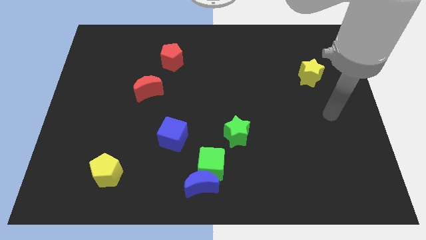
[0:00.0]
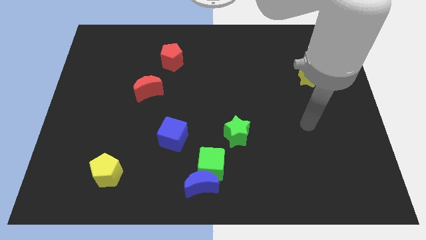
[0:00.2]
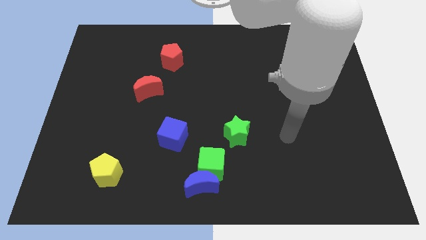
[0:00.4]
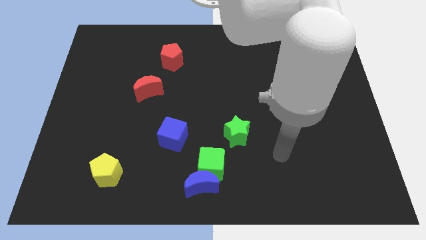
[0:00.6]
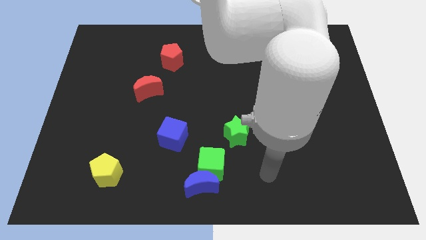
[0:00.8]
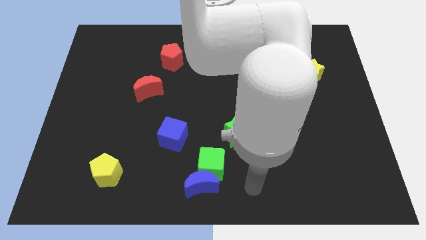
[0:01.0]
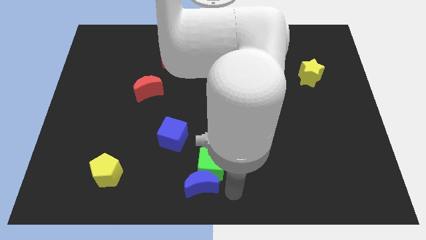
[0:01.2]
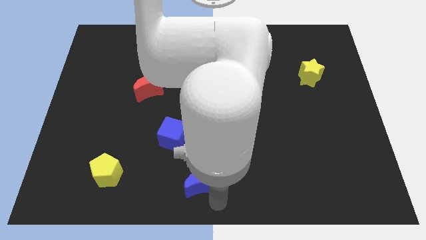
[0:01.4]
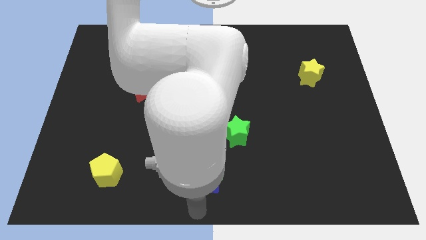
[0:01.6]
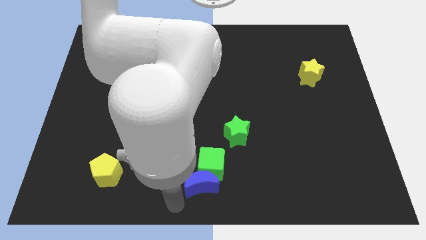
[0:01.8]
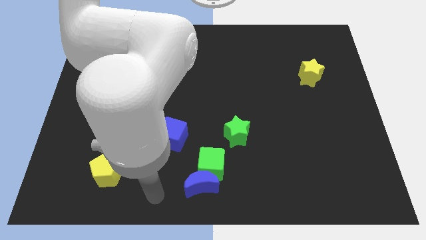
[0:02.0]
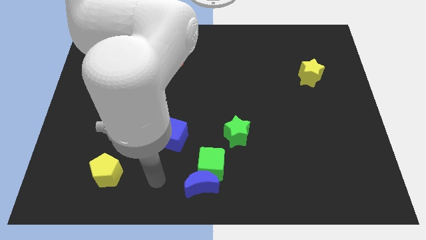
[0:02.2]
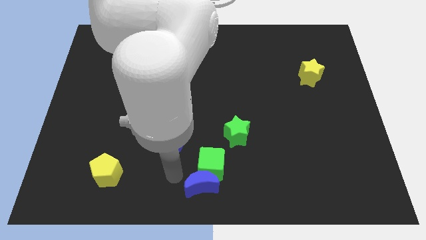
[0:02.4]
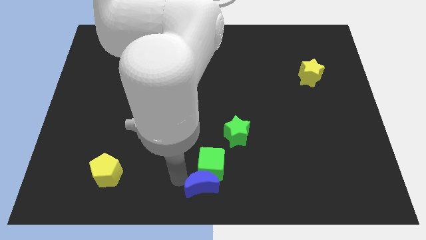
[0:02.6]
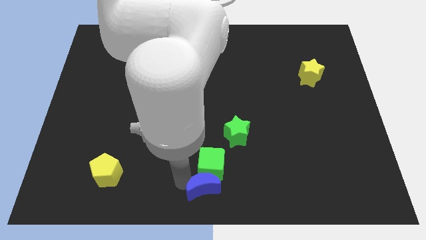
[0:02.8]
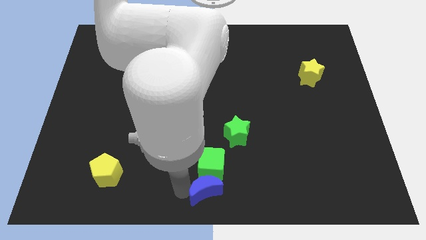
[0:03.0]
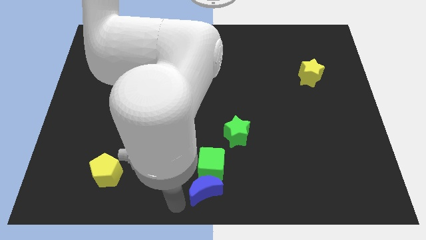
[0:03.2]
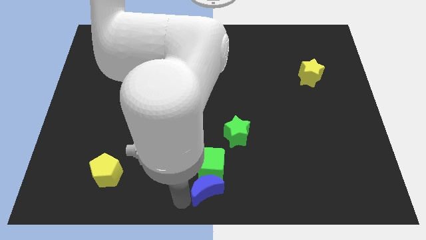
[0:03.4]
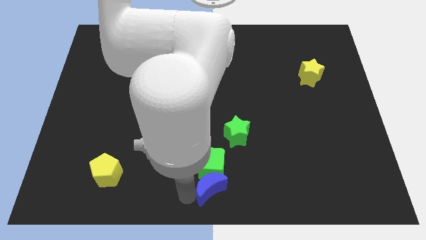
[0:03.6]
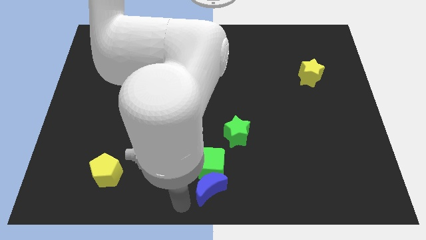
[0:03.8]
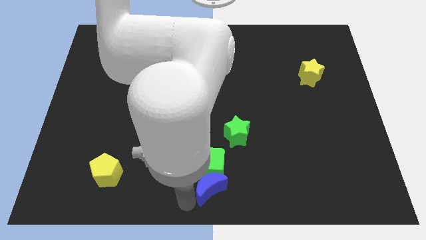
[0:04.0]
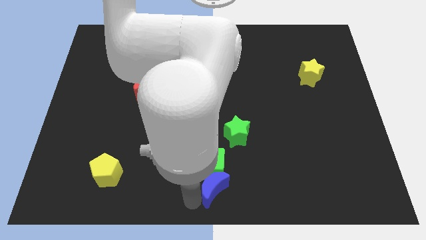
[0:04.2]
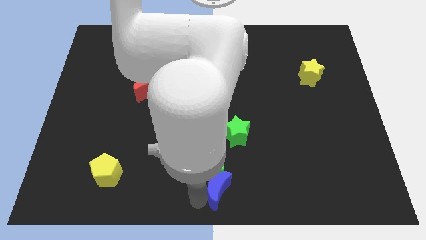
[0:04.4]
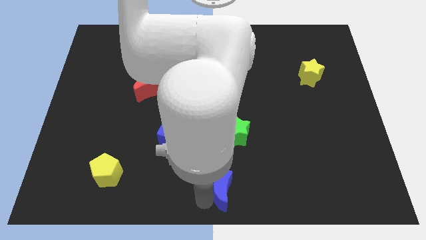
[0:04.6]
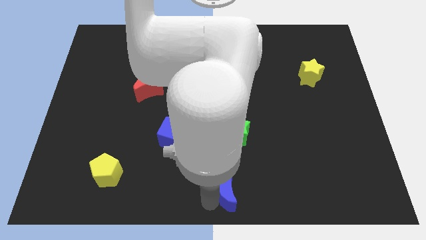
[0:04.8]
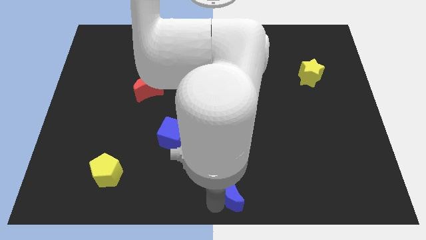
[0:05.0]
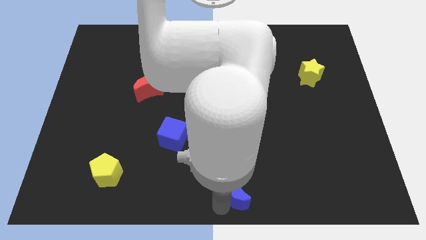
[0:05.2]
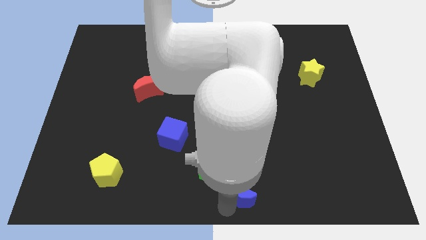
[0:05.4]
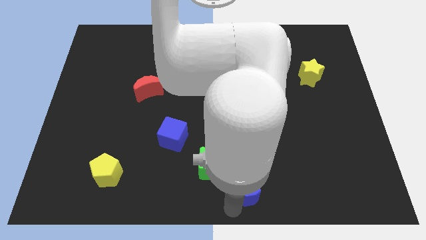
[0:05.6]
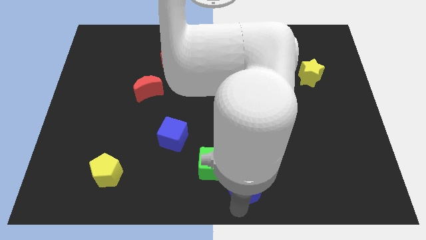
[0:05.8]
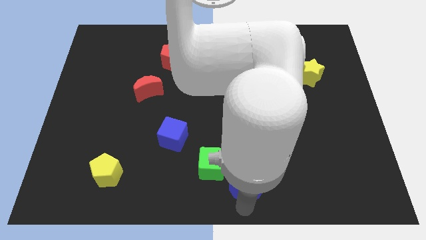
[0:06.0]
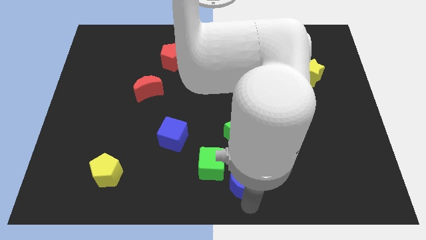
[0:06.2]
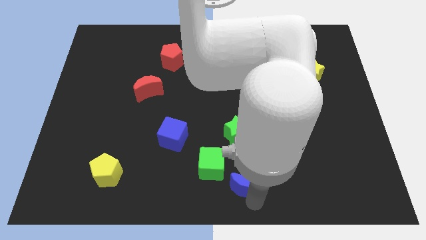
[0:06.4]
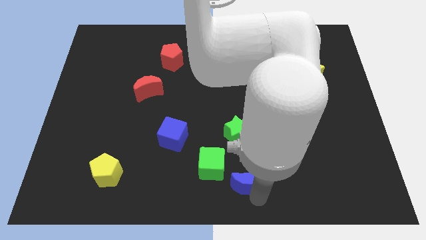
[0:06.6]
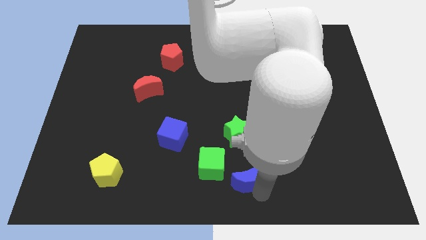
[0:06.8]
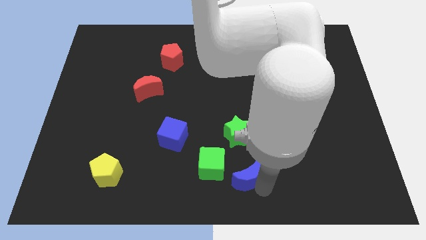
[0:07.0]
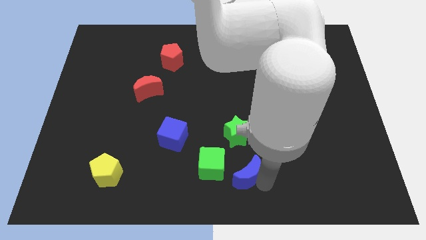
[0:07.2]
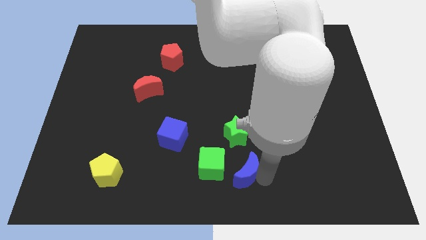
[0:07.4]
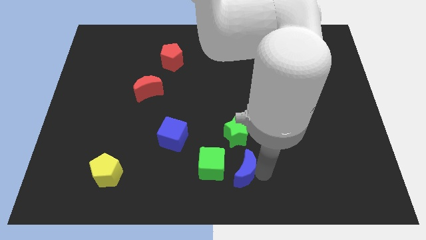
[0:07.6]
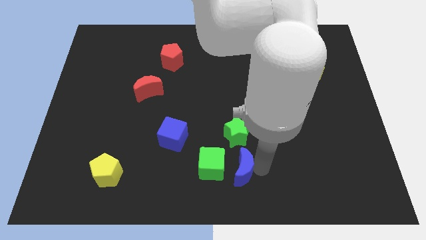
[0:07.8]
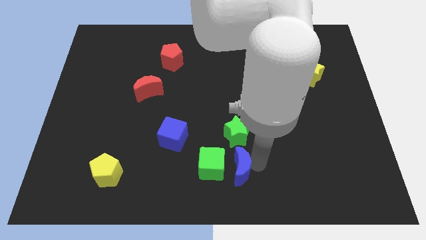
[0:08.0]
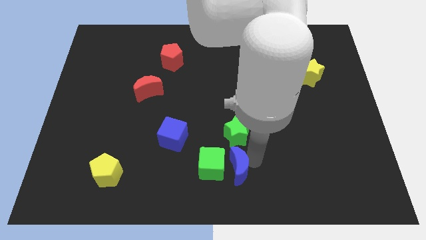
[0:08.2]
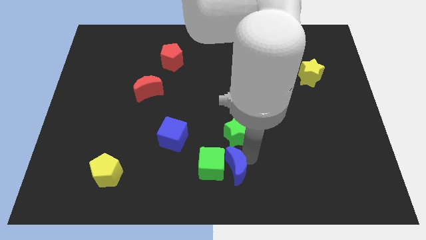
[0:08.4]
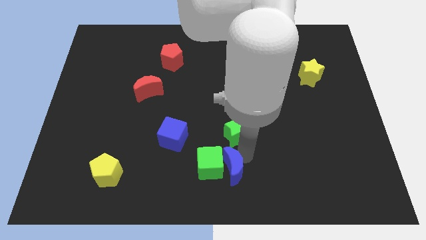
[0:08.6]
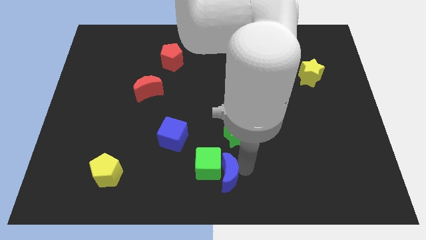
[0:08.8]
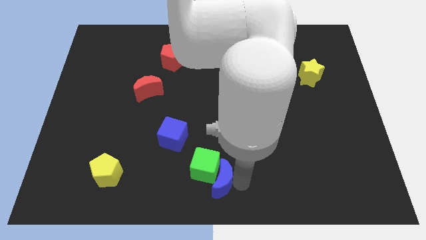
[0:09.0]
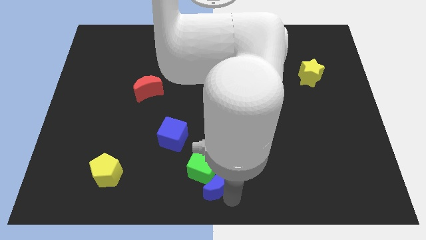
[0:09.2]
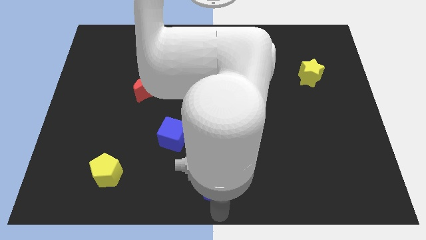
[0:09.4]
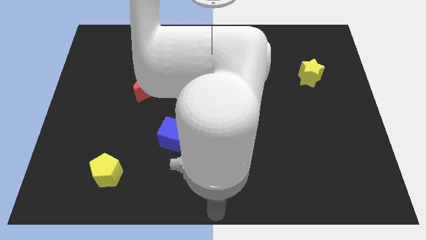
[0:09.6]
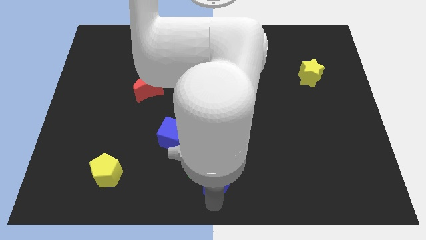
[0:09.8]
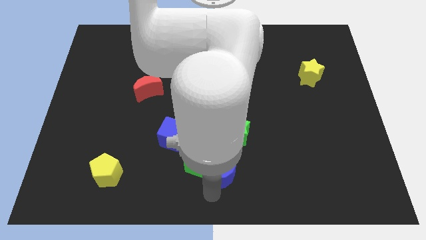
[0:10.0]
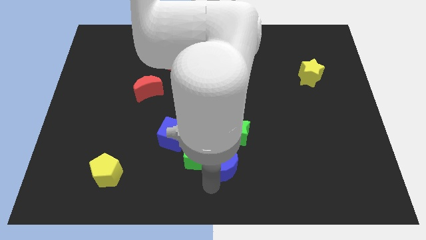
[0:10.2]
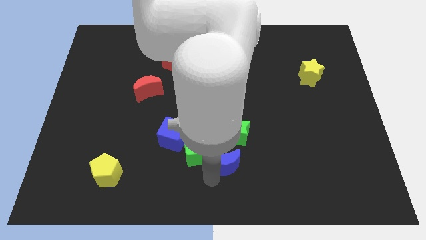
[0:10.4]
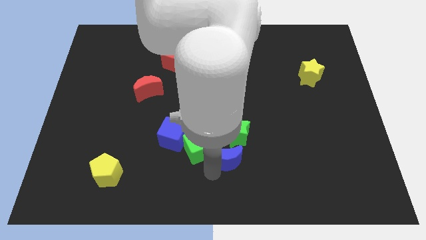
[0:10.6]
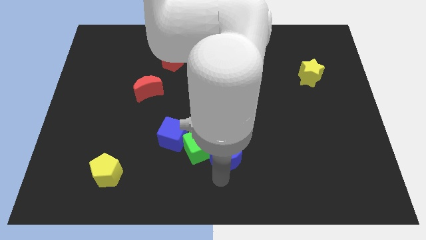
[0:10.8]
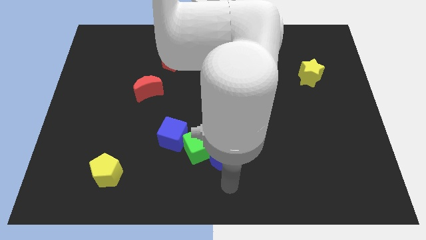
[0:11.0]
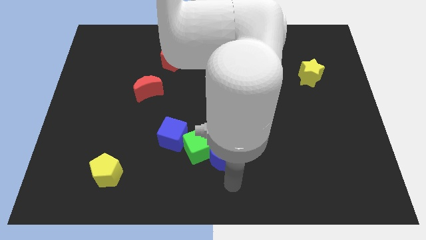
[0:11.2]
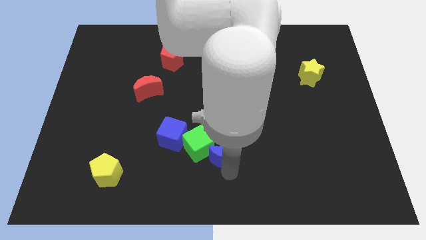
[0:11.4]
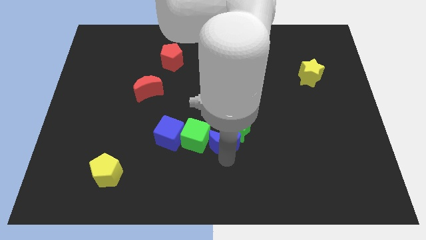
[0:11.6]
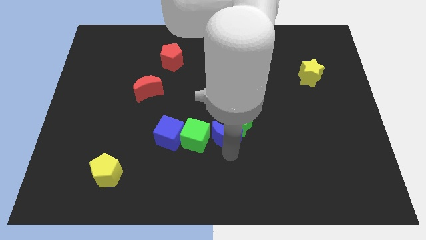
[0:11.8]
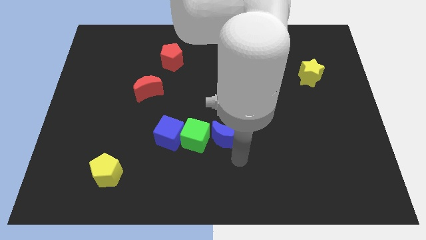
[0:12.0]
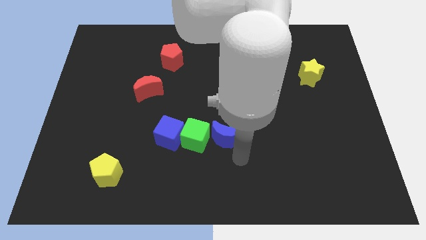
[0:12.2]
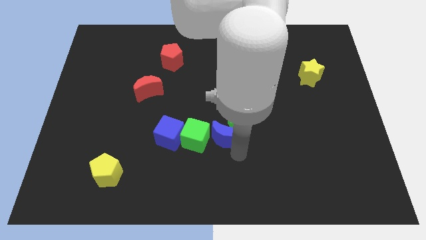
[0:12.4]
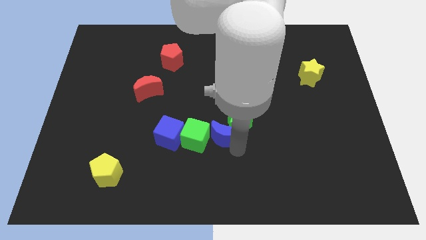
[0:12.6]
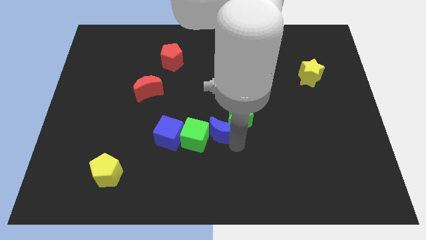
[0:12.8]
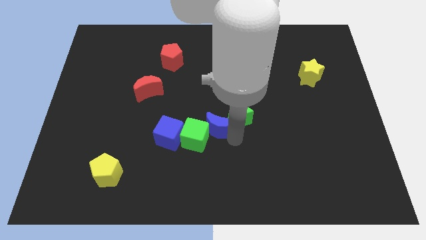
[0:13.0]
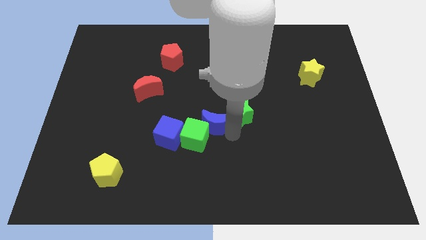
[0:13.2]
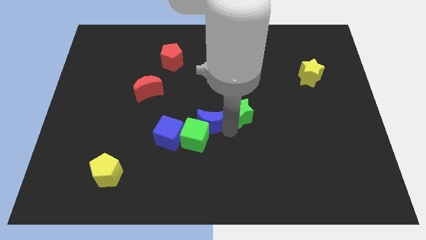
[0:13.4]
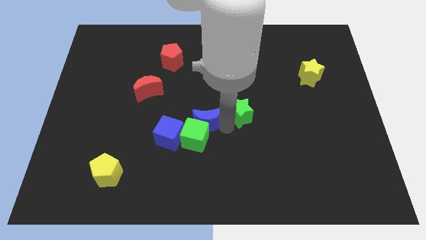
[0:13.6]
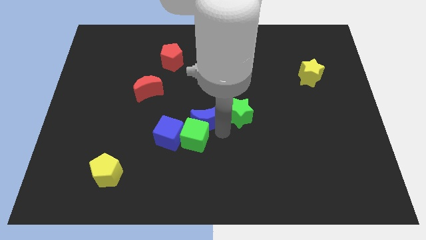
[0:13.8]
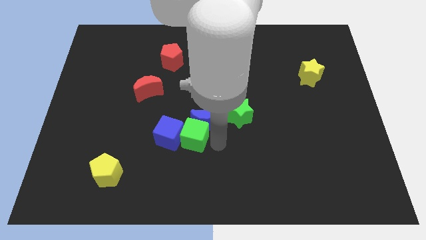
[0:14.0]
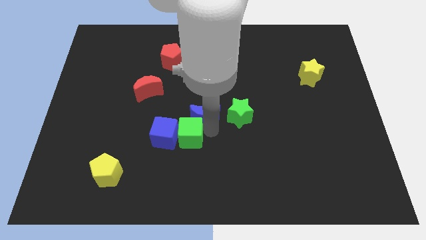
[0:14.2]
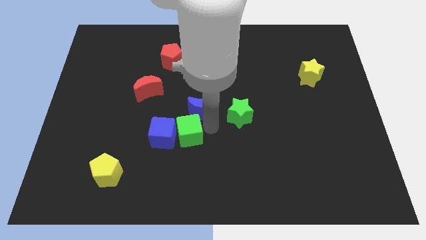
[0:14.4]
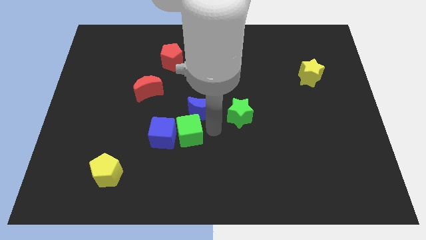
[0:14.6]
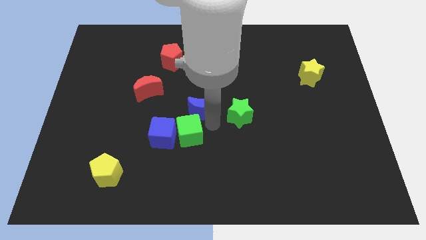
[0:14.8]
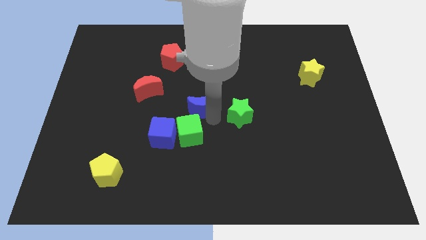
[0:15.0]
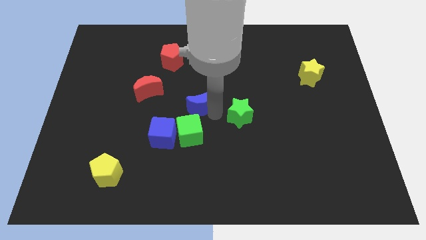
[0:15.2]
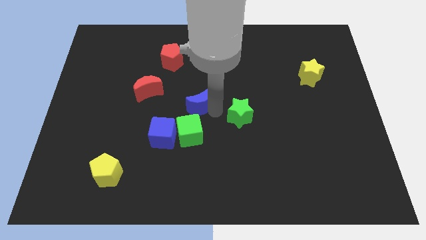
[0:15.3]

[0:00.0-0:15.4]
move the blue moon right of the red moon
